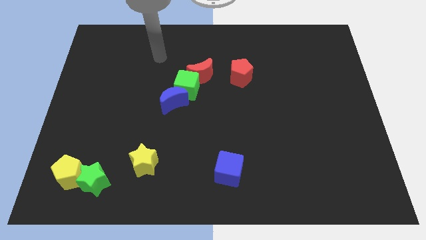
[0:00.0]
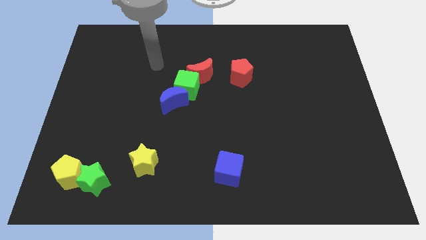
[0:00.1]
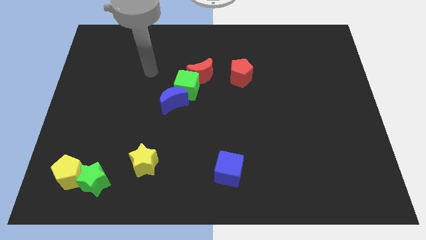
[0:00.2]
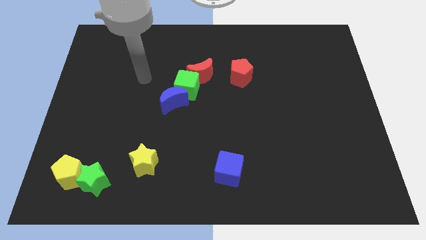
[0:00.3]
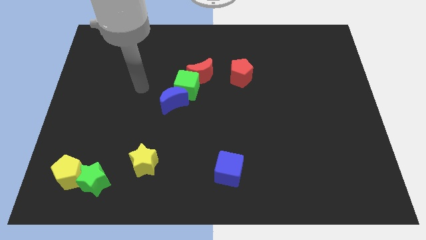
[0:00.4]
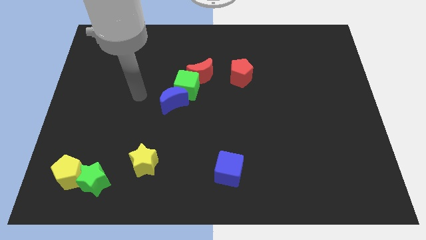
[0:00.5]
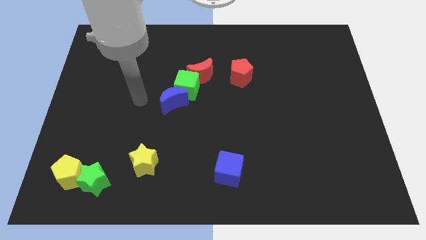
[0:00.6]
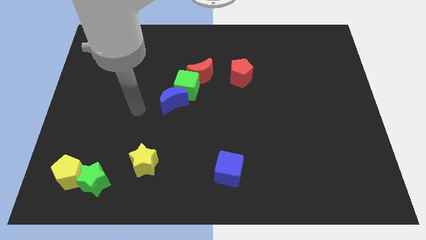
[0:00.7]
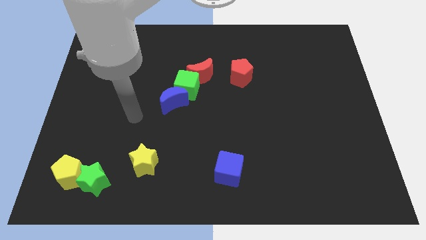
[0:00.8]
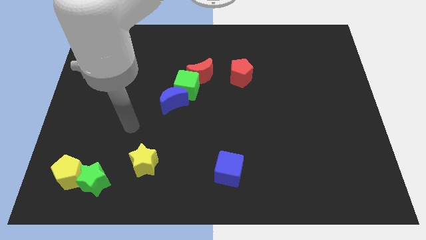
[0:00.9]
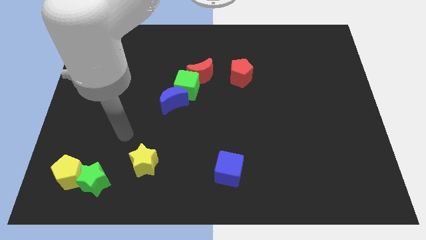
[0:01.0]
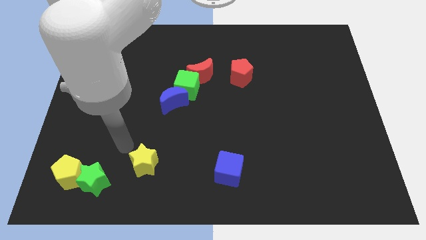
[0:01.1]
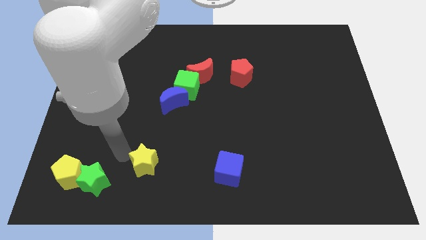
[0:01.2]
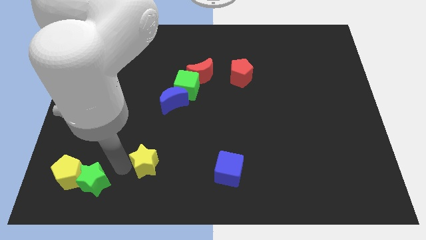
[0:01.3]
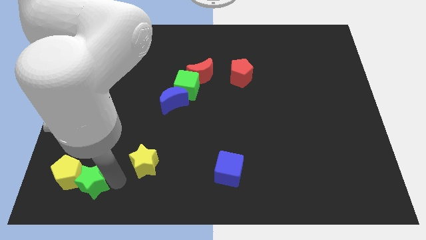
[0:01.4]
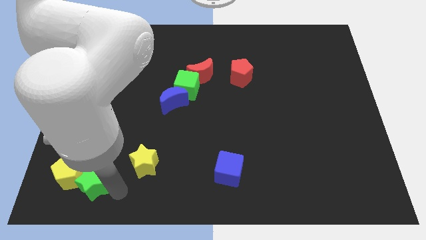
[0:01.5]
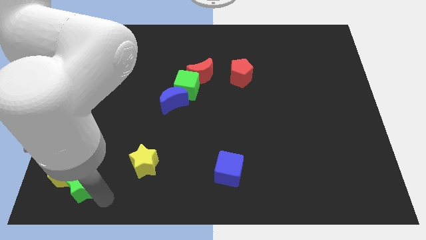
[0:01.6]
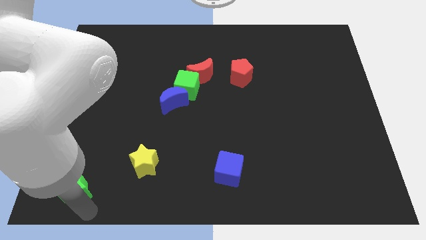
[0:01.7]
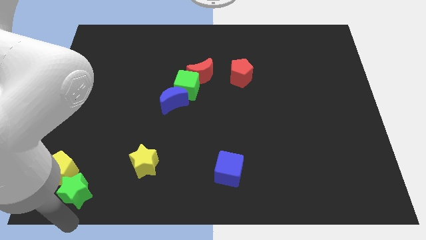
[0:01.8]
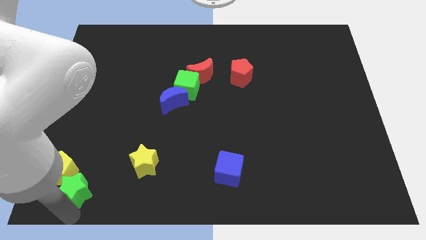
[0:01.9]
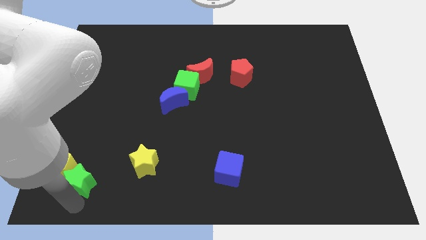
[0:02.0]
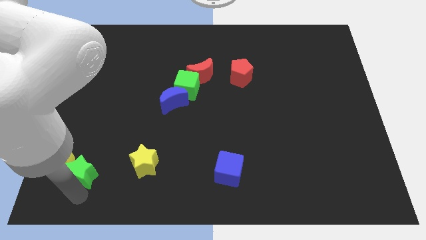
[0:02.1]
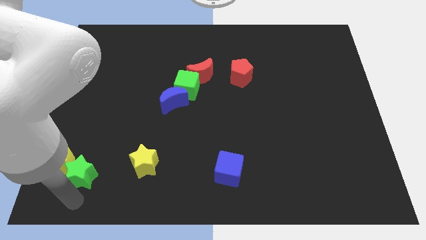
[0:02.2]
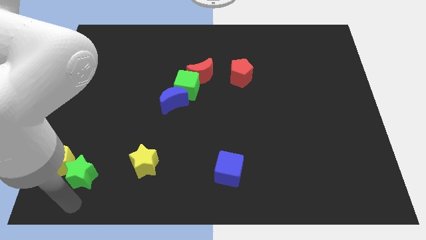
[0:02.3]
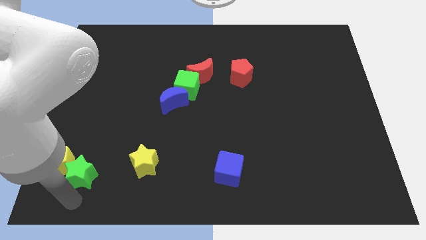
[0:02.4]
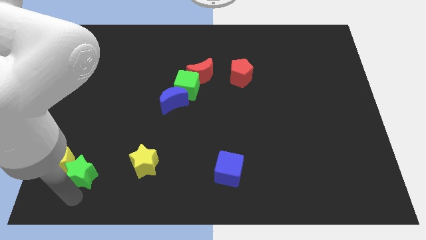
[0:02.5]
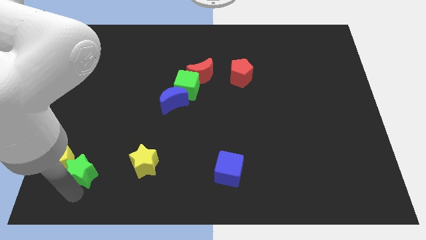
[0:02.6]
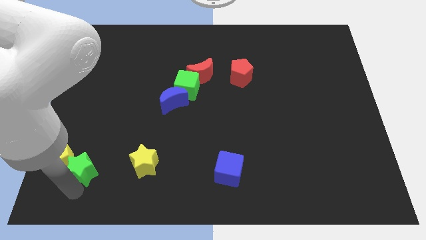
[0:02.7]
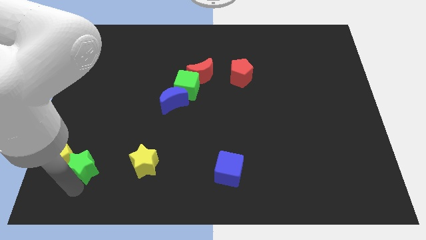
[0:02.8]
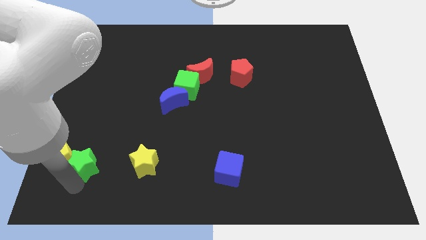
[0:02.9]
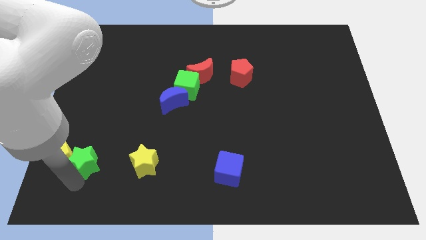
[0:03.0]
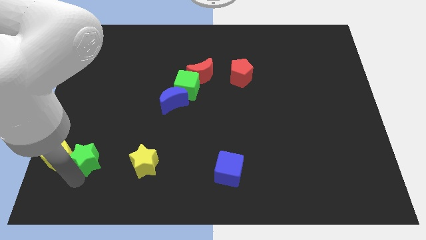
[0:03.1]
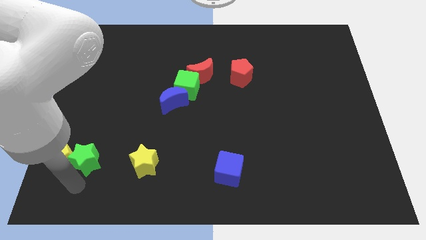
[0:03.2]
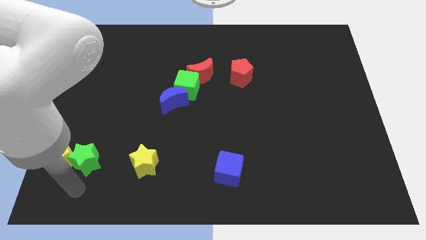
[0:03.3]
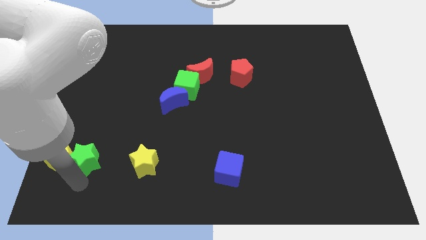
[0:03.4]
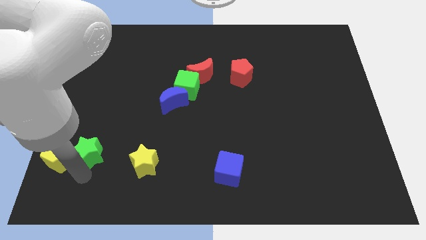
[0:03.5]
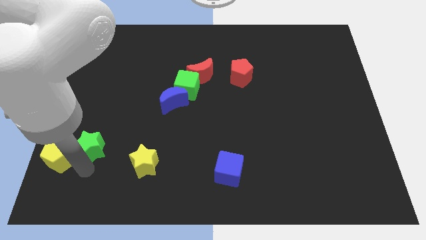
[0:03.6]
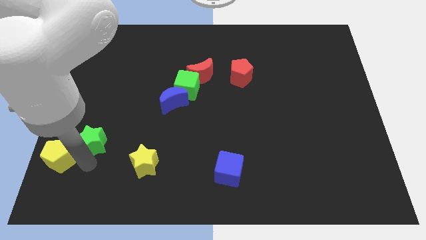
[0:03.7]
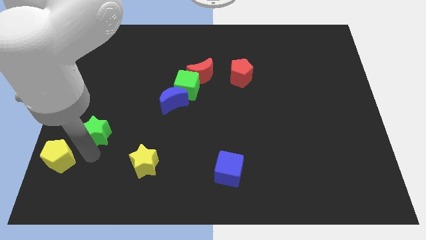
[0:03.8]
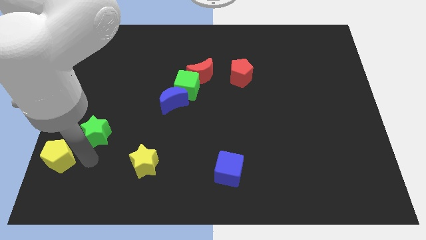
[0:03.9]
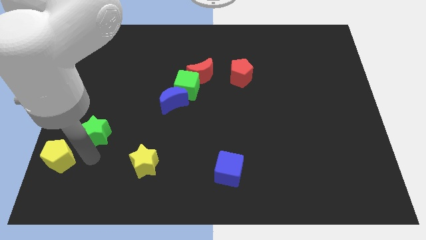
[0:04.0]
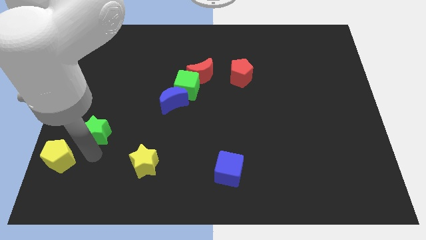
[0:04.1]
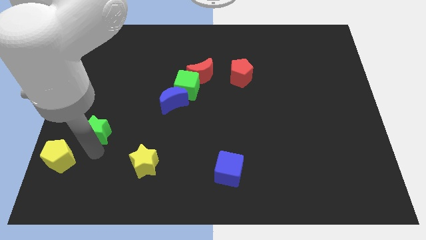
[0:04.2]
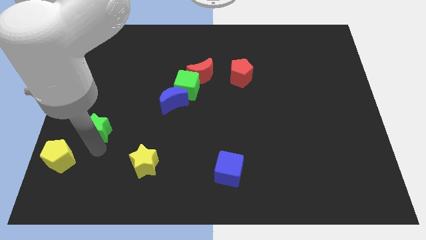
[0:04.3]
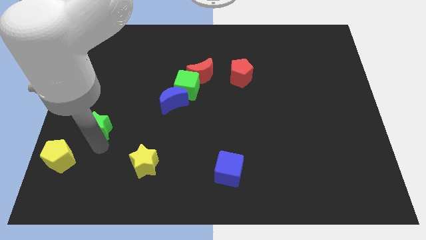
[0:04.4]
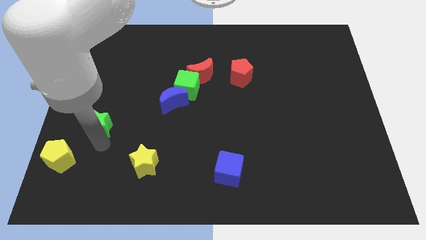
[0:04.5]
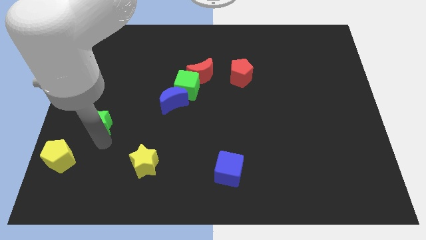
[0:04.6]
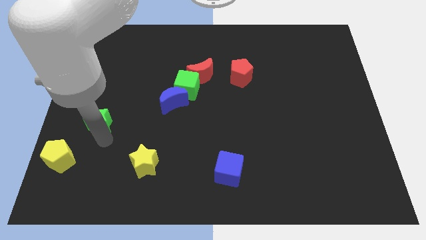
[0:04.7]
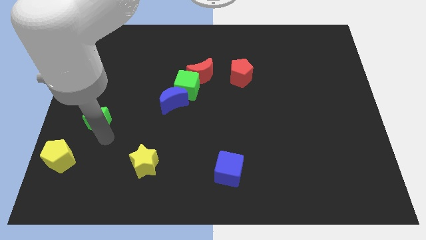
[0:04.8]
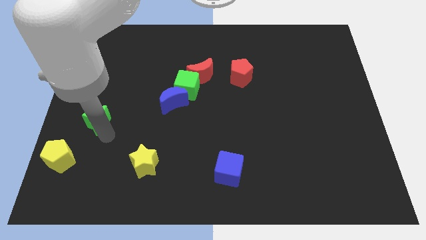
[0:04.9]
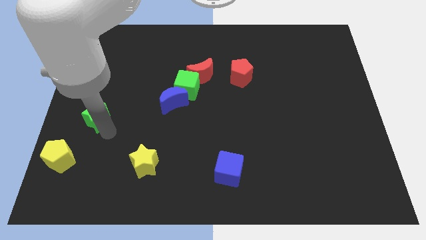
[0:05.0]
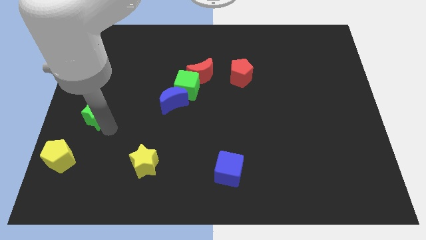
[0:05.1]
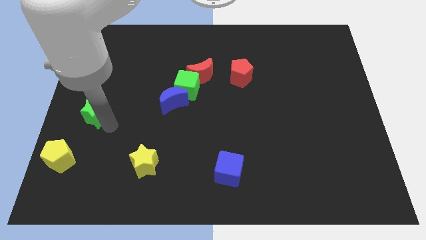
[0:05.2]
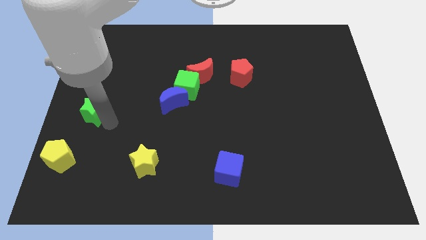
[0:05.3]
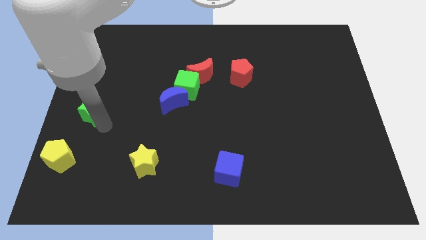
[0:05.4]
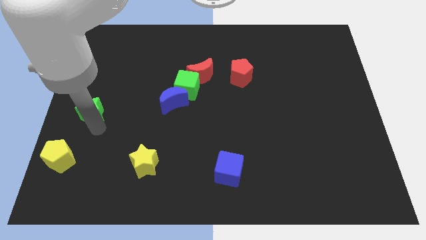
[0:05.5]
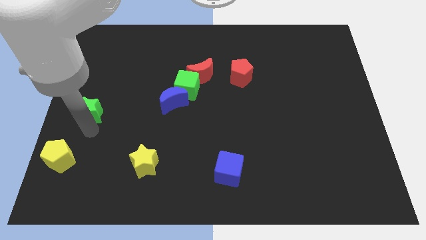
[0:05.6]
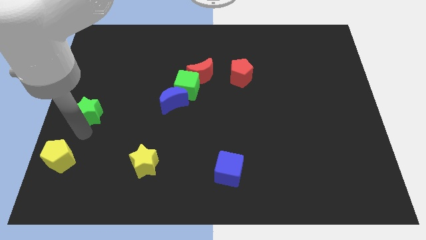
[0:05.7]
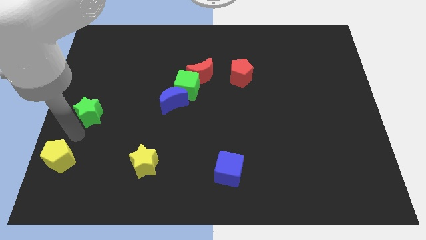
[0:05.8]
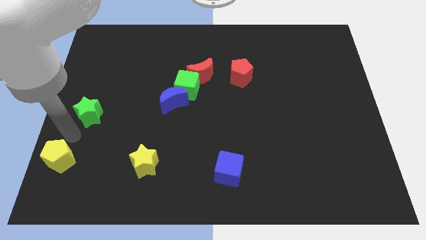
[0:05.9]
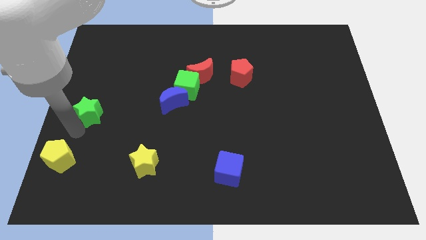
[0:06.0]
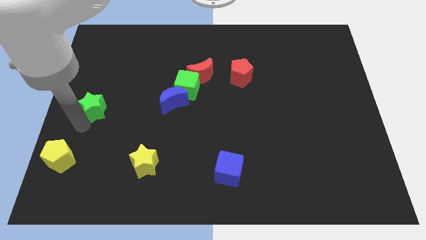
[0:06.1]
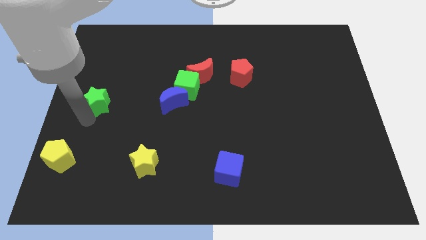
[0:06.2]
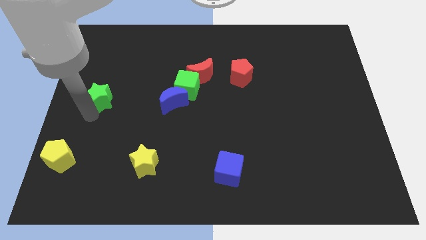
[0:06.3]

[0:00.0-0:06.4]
push the green star upwards

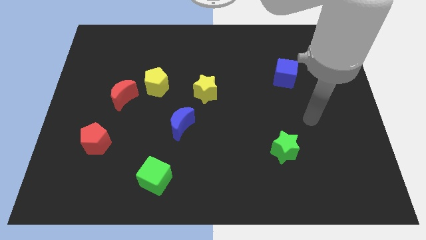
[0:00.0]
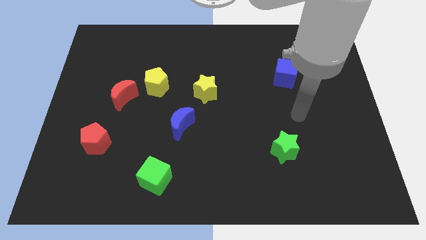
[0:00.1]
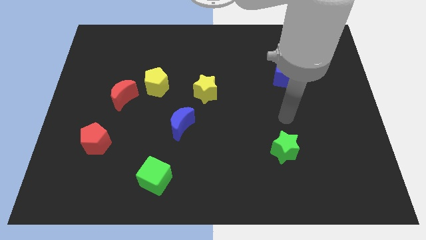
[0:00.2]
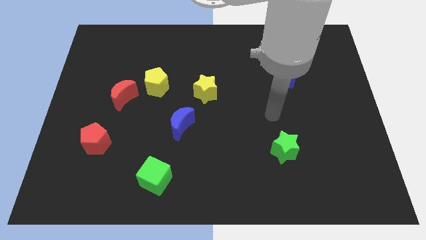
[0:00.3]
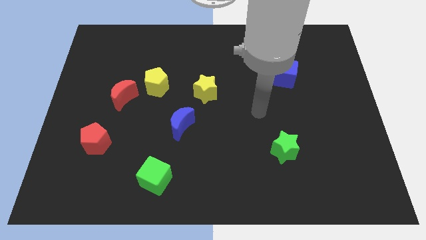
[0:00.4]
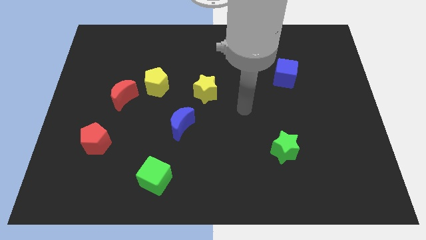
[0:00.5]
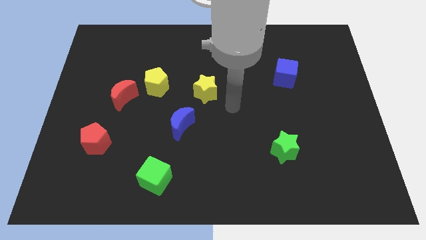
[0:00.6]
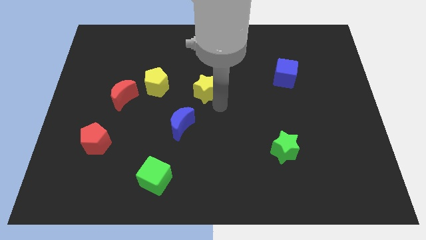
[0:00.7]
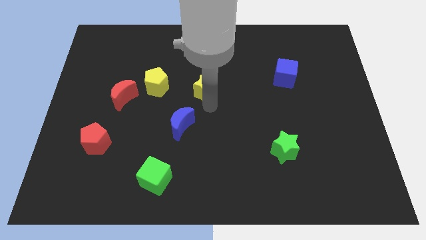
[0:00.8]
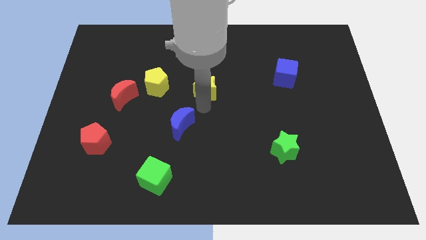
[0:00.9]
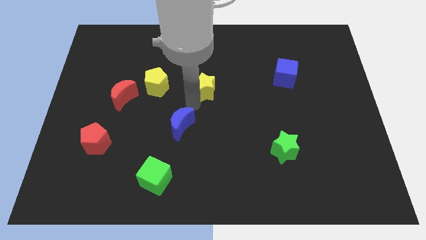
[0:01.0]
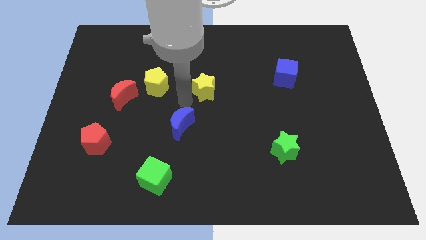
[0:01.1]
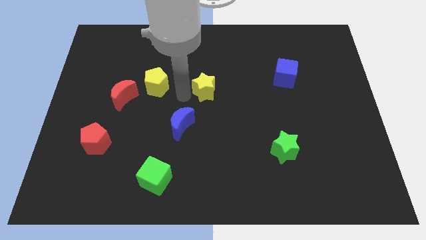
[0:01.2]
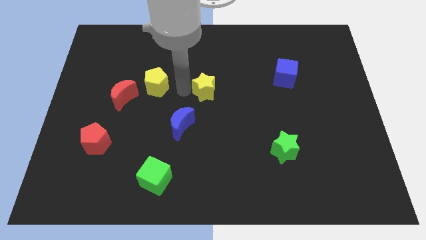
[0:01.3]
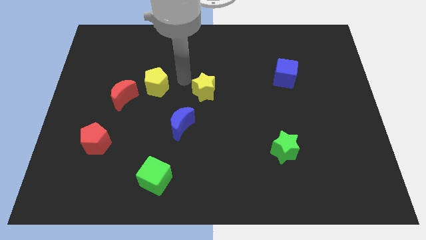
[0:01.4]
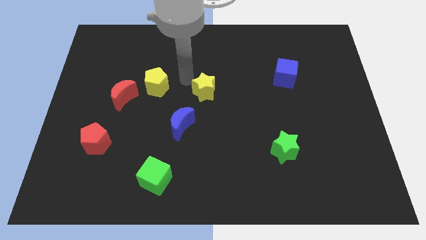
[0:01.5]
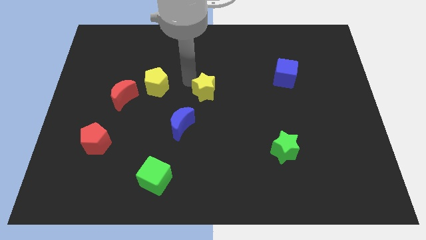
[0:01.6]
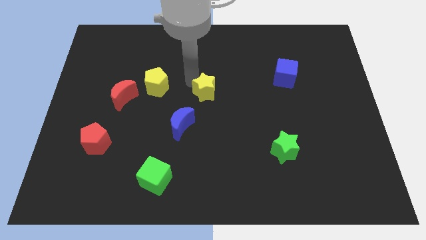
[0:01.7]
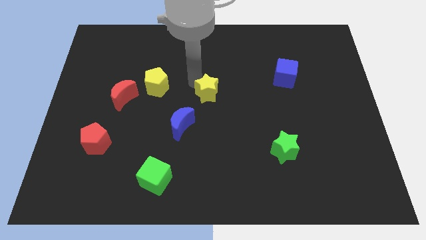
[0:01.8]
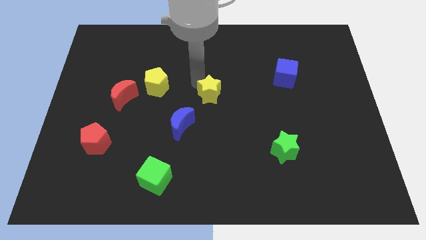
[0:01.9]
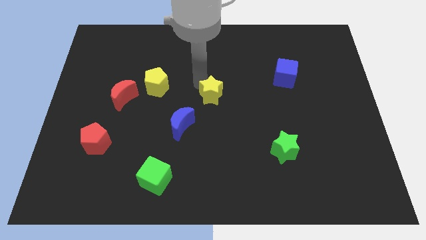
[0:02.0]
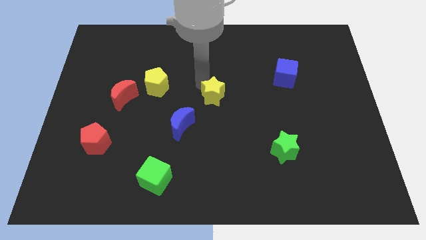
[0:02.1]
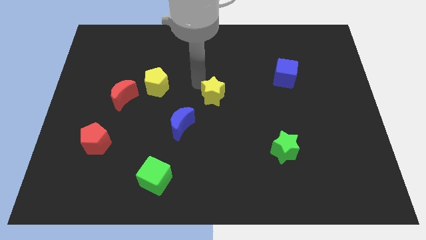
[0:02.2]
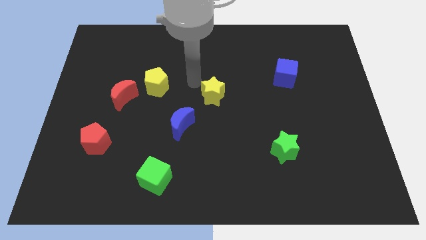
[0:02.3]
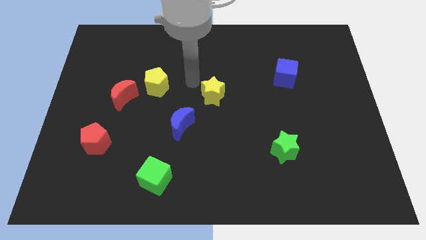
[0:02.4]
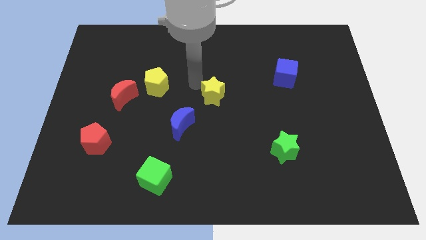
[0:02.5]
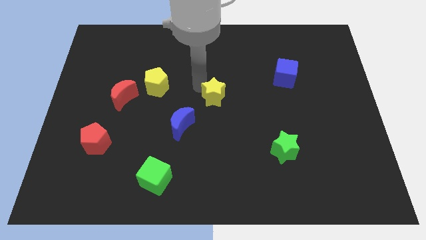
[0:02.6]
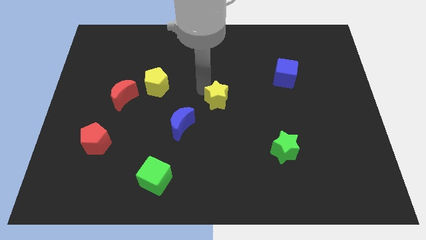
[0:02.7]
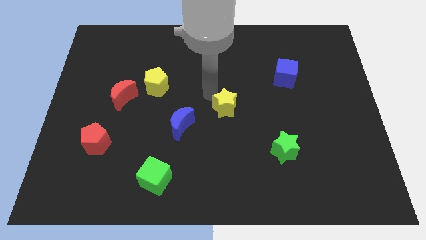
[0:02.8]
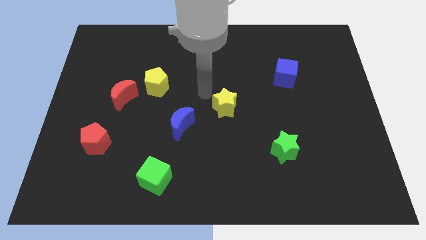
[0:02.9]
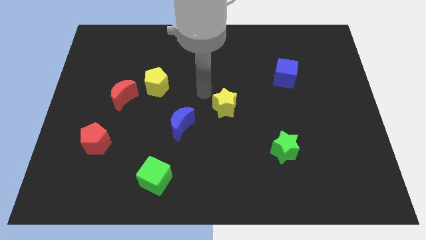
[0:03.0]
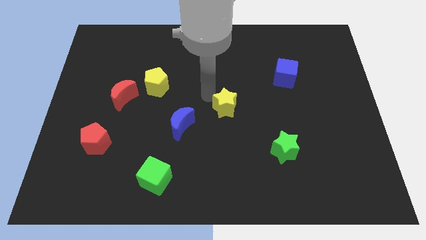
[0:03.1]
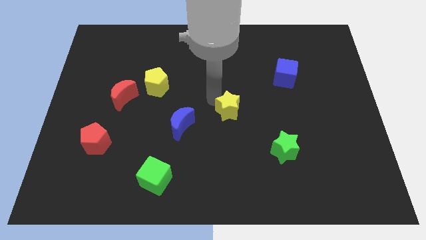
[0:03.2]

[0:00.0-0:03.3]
slide the yellow star down and right diagonally a bit
